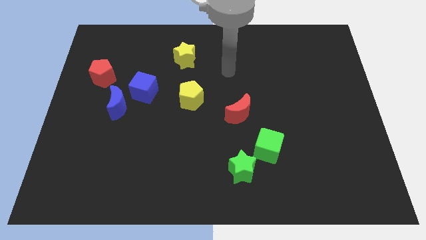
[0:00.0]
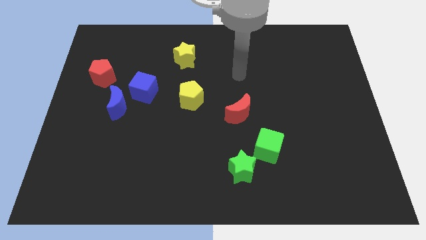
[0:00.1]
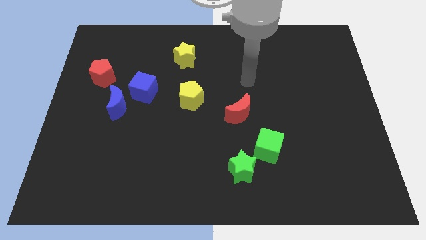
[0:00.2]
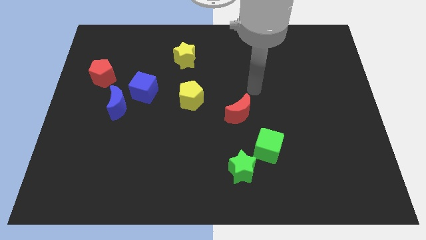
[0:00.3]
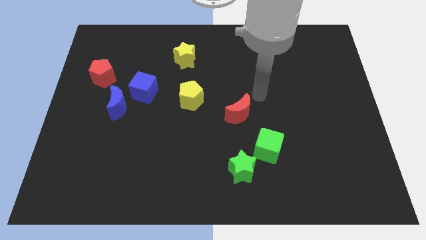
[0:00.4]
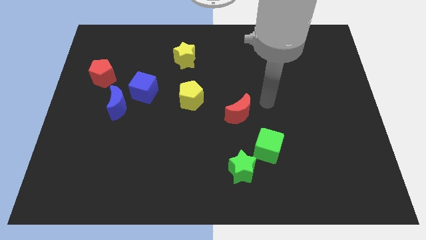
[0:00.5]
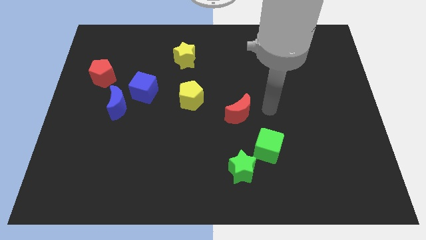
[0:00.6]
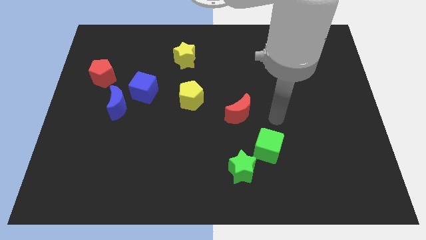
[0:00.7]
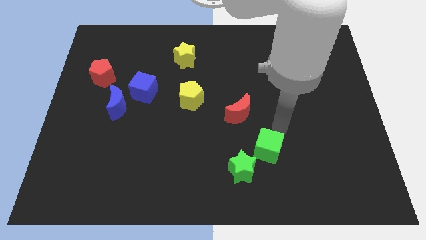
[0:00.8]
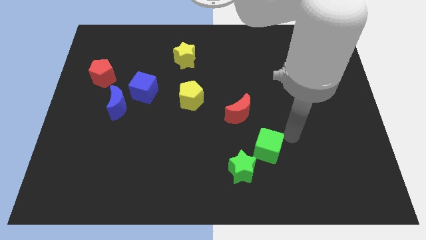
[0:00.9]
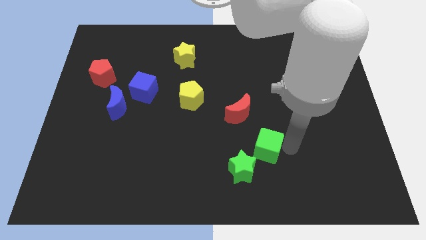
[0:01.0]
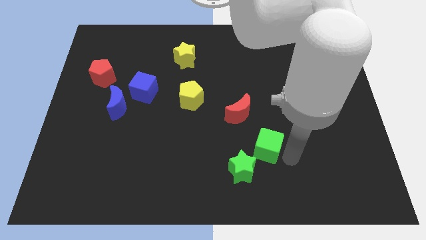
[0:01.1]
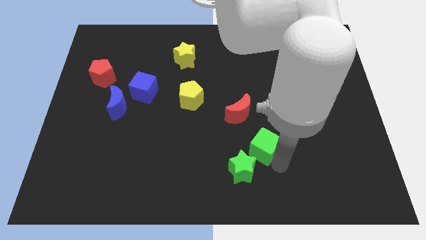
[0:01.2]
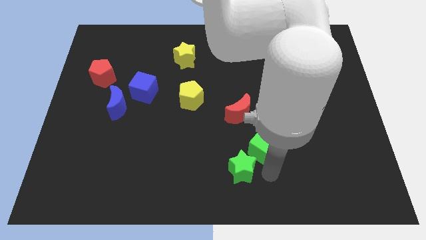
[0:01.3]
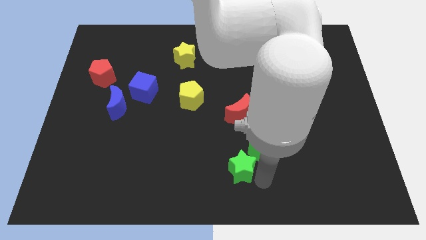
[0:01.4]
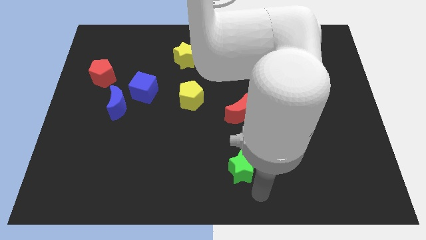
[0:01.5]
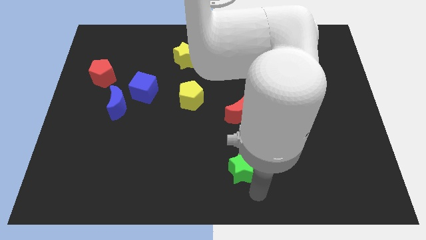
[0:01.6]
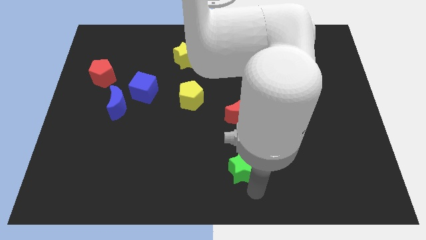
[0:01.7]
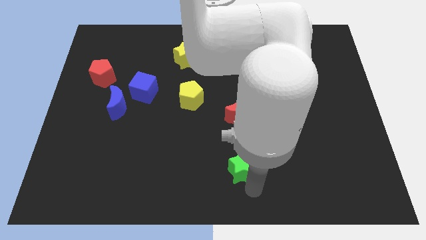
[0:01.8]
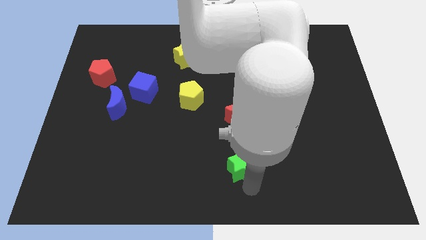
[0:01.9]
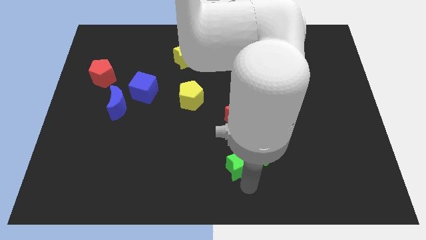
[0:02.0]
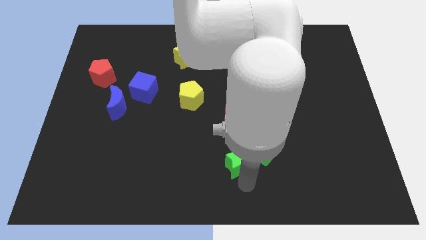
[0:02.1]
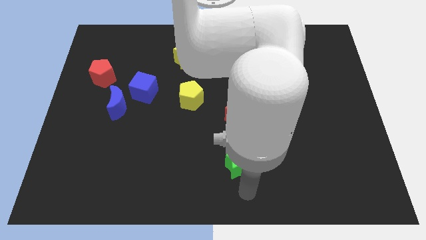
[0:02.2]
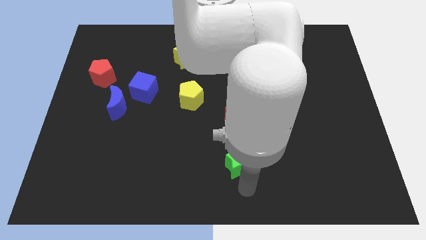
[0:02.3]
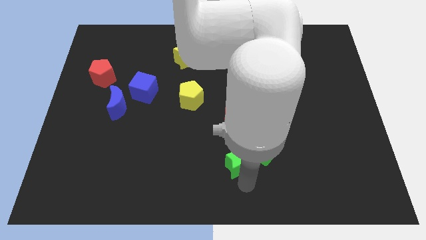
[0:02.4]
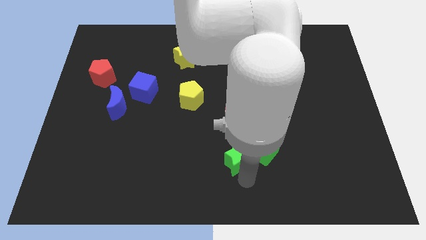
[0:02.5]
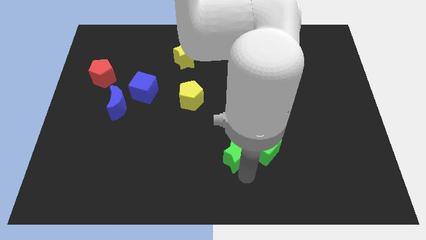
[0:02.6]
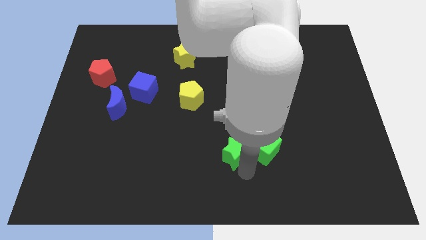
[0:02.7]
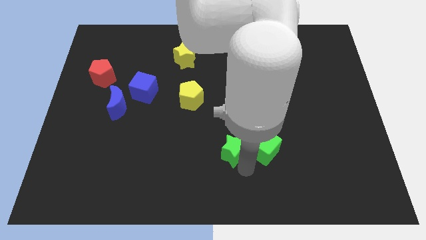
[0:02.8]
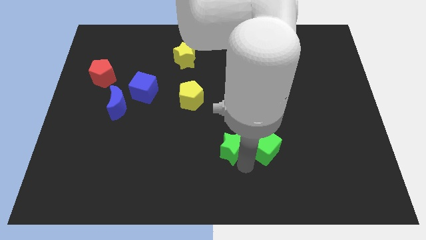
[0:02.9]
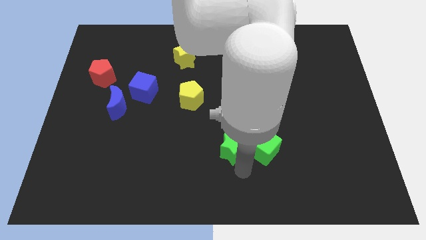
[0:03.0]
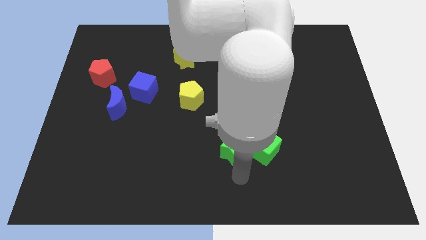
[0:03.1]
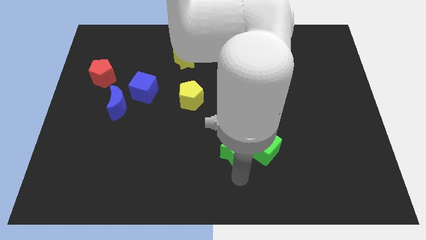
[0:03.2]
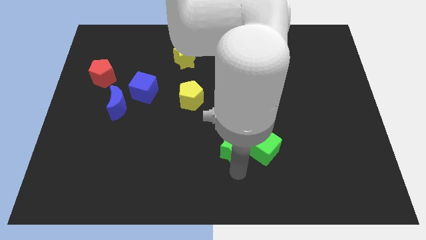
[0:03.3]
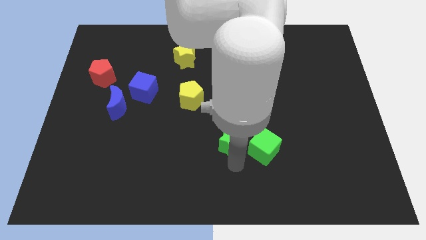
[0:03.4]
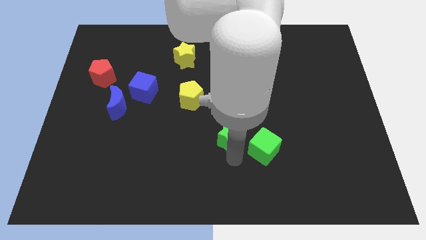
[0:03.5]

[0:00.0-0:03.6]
push the green star up slightly

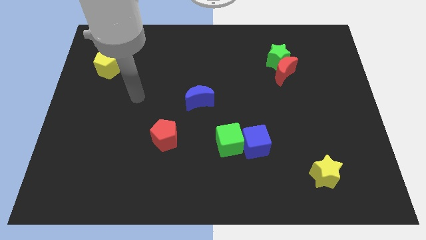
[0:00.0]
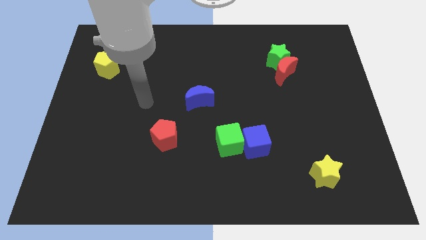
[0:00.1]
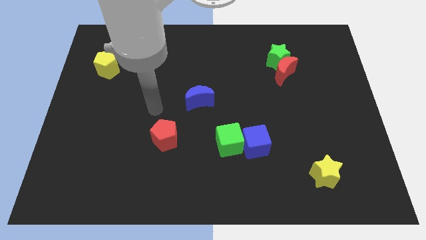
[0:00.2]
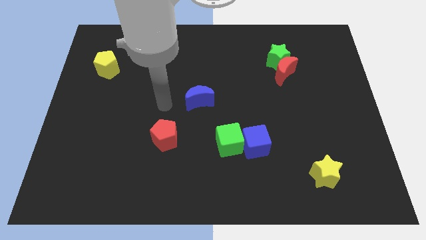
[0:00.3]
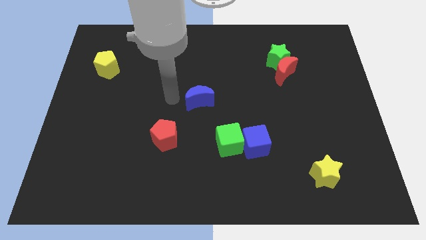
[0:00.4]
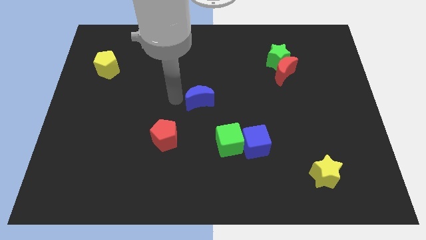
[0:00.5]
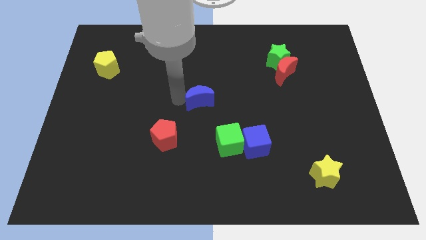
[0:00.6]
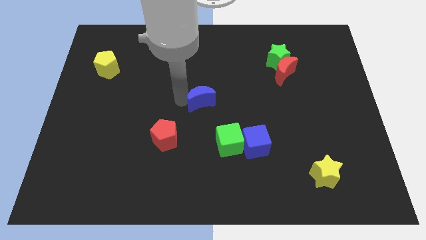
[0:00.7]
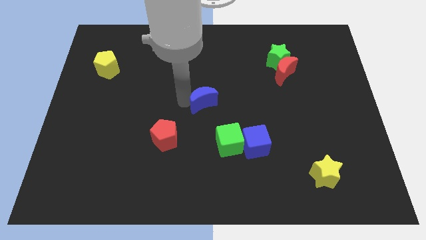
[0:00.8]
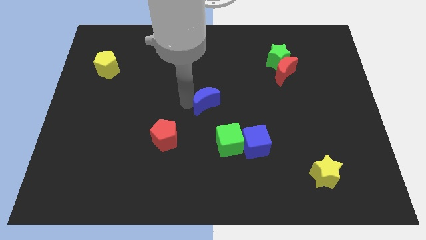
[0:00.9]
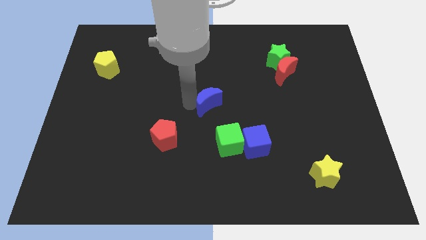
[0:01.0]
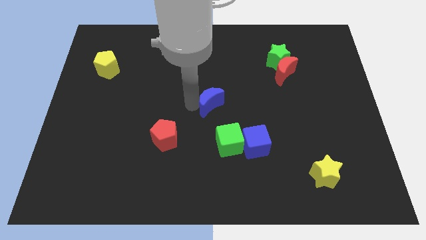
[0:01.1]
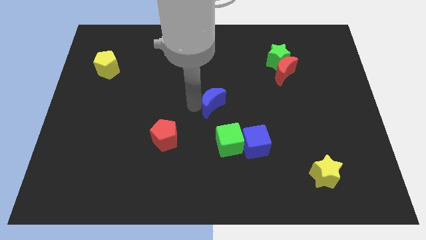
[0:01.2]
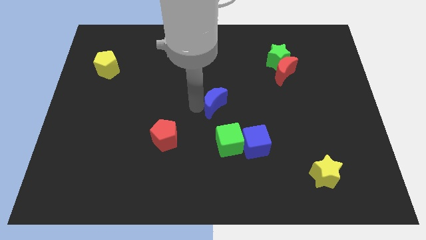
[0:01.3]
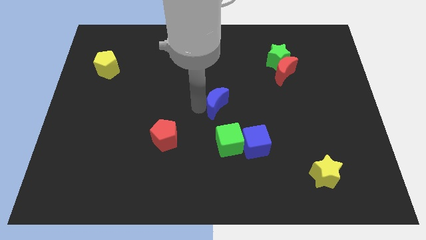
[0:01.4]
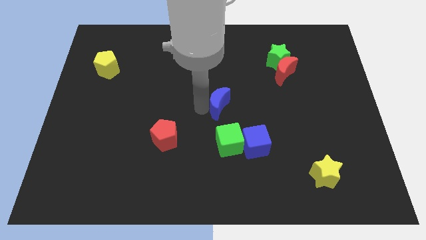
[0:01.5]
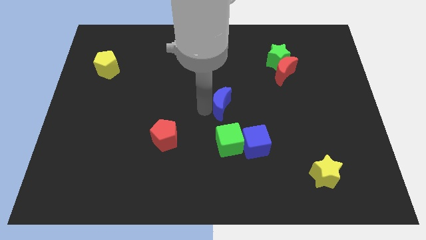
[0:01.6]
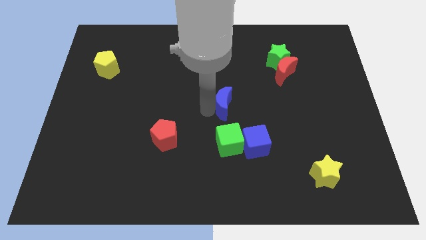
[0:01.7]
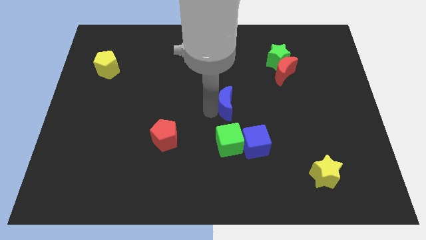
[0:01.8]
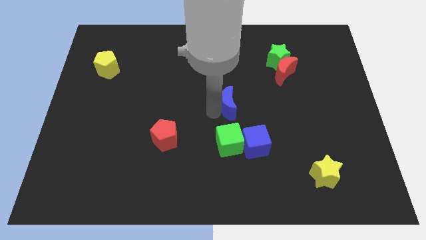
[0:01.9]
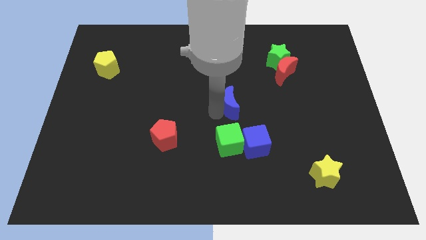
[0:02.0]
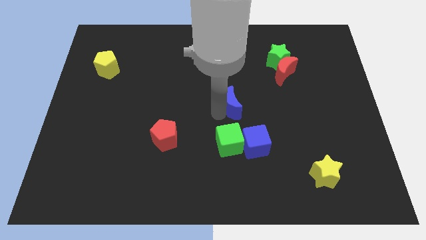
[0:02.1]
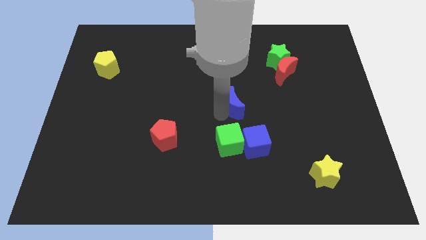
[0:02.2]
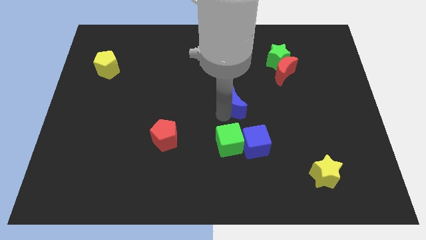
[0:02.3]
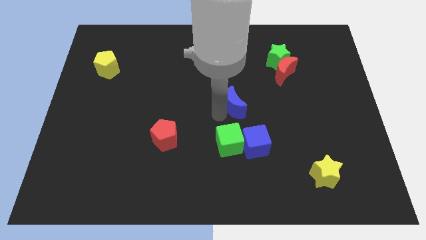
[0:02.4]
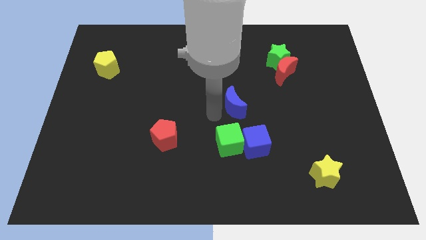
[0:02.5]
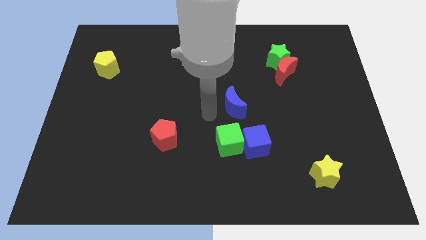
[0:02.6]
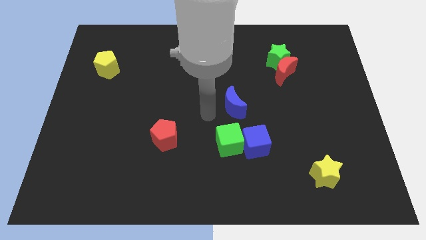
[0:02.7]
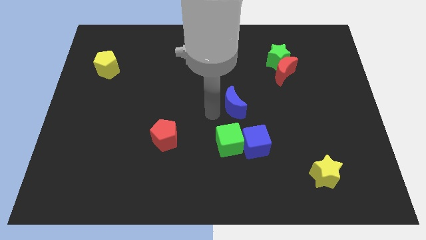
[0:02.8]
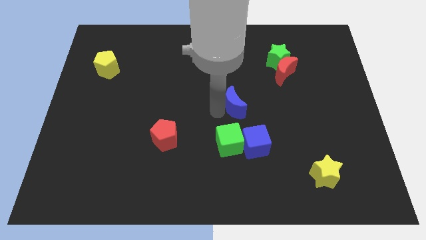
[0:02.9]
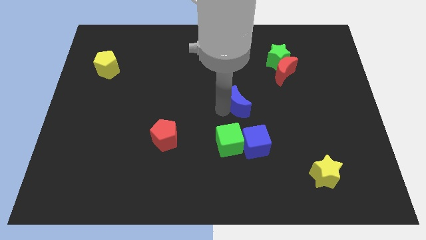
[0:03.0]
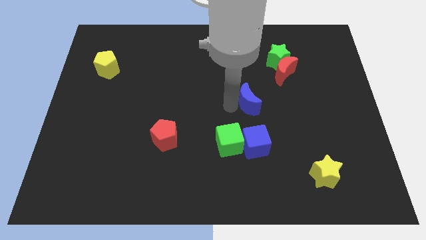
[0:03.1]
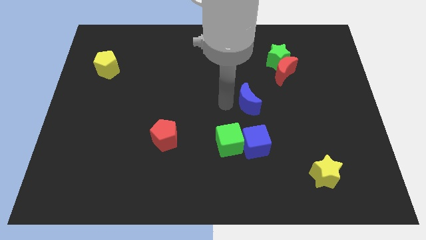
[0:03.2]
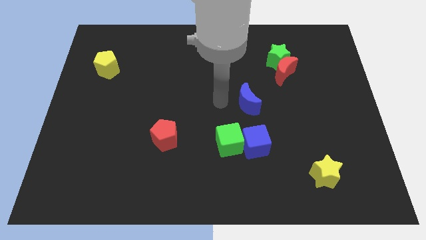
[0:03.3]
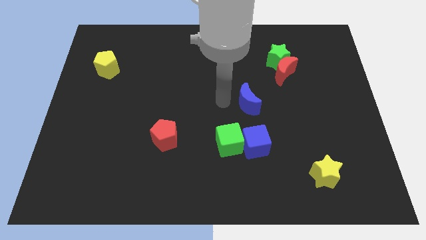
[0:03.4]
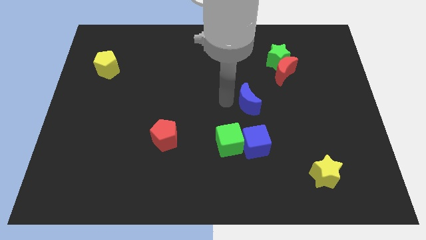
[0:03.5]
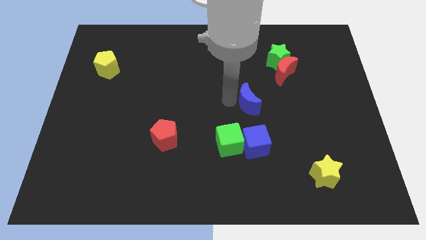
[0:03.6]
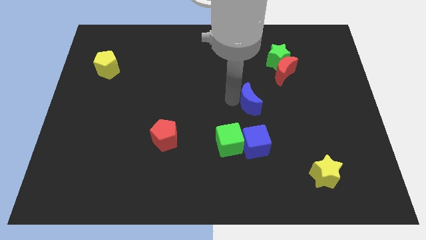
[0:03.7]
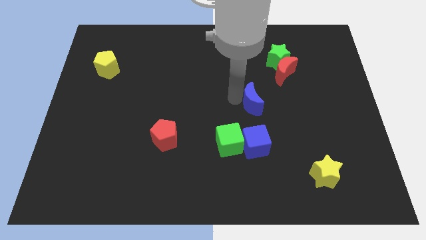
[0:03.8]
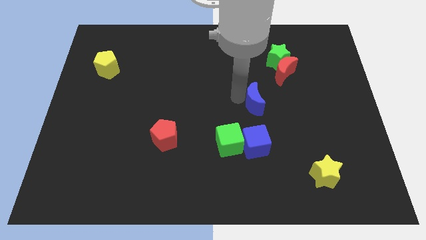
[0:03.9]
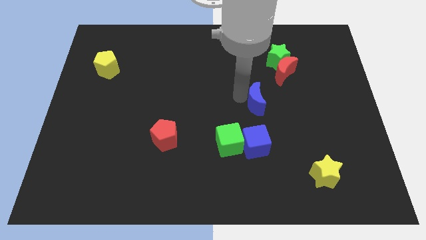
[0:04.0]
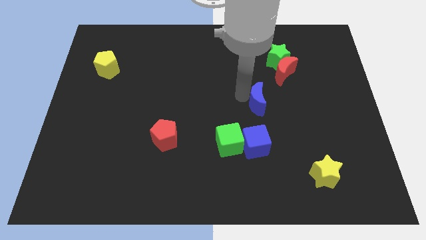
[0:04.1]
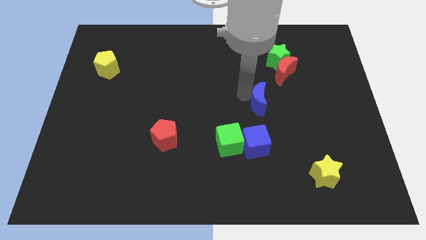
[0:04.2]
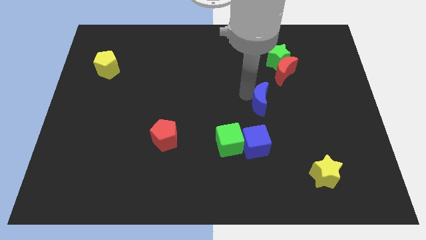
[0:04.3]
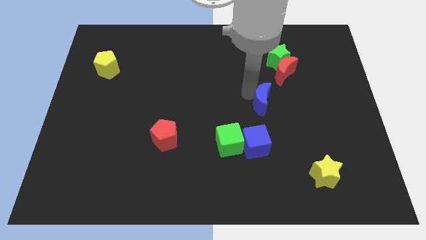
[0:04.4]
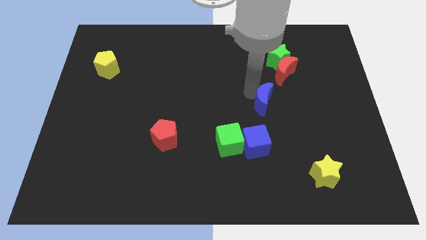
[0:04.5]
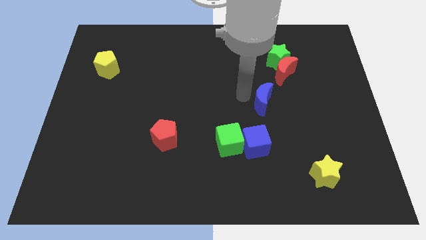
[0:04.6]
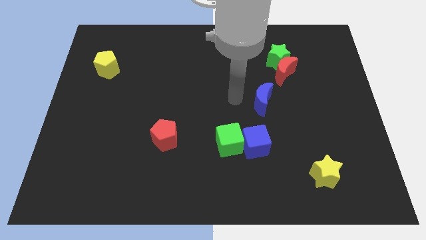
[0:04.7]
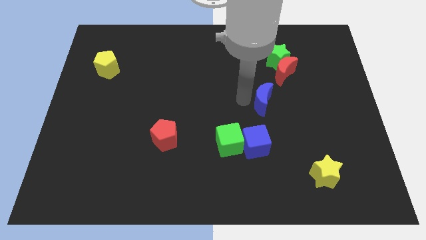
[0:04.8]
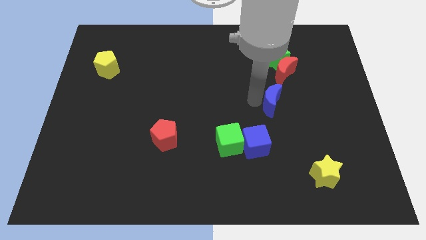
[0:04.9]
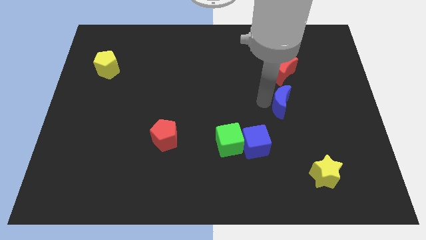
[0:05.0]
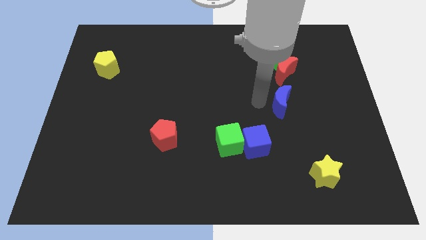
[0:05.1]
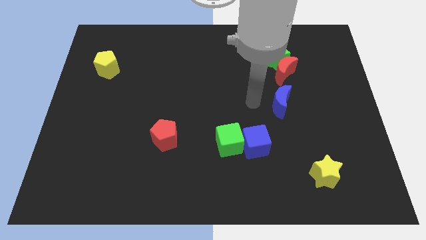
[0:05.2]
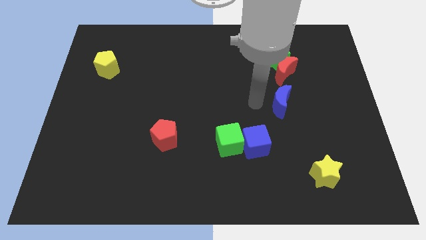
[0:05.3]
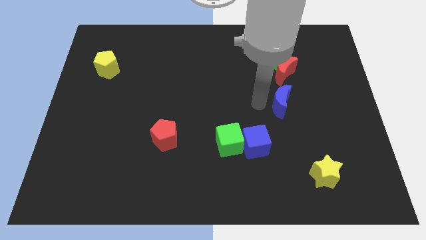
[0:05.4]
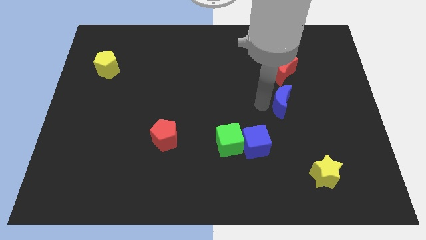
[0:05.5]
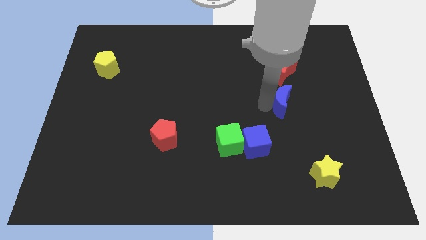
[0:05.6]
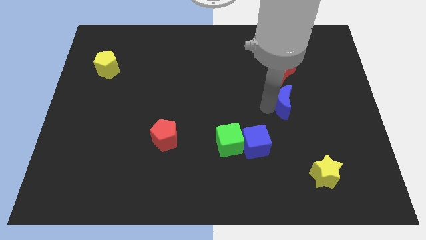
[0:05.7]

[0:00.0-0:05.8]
slide the blue moon right
